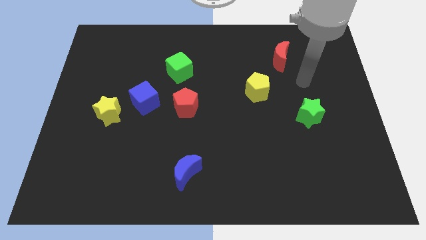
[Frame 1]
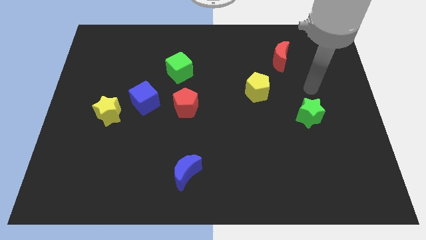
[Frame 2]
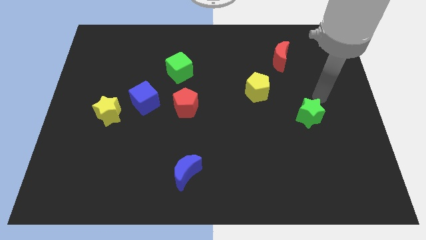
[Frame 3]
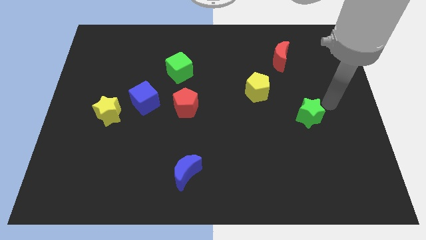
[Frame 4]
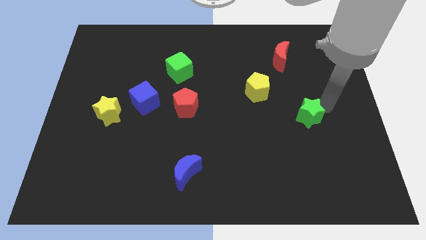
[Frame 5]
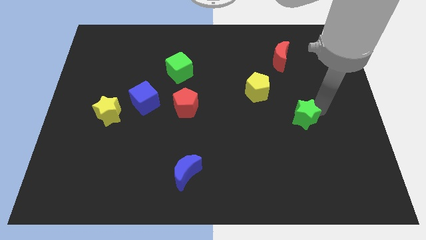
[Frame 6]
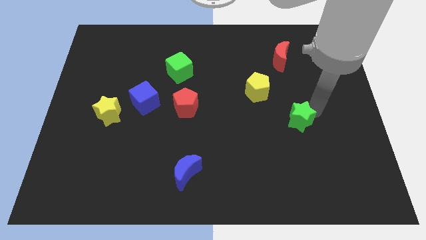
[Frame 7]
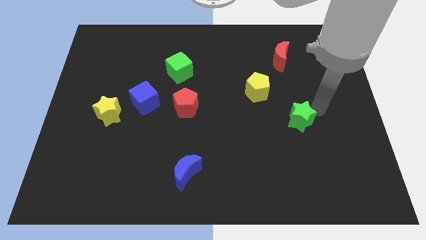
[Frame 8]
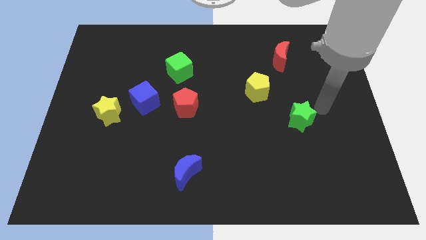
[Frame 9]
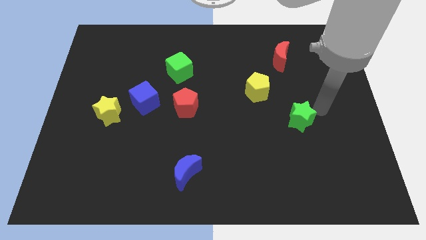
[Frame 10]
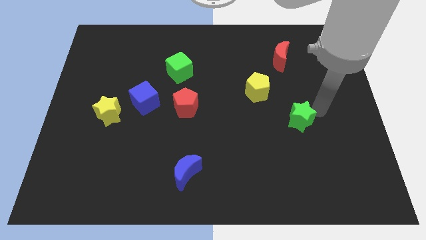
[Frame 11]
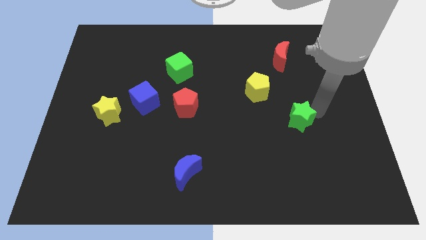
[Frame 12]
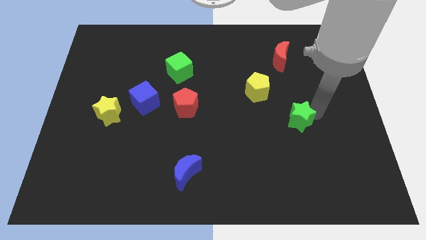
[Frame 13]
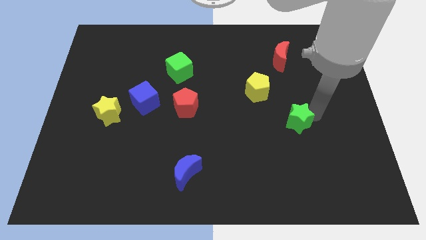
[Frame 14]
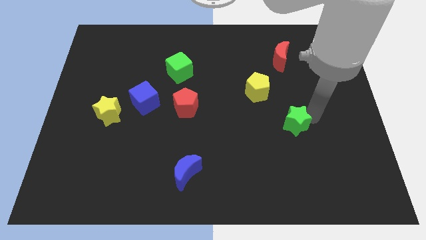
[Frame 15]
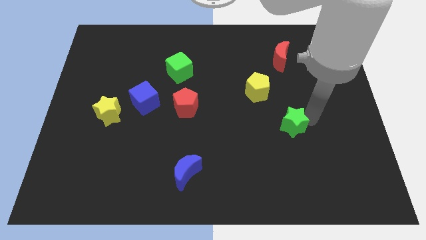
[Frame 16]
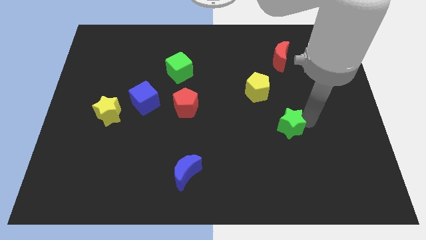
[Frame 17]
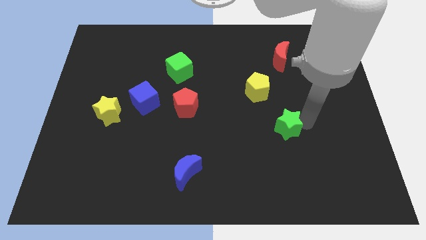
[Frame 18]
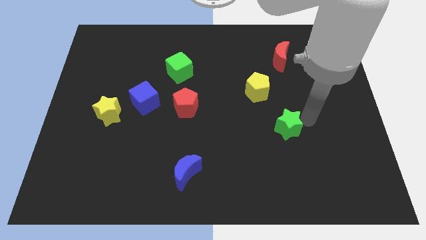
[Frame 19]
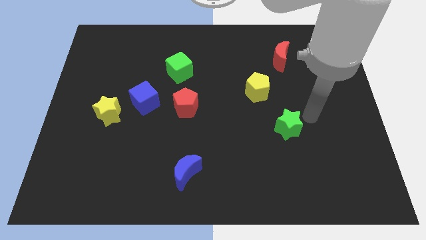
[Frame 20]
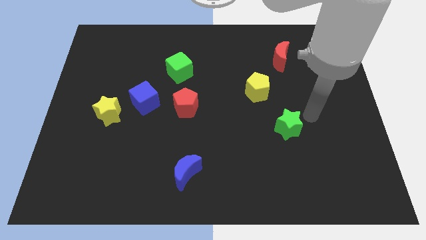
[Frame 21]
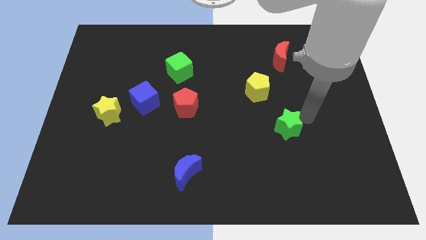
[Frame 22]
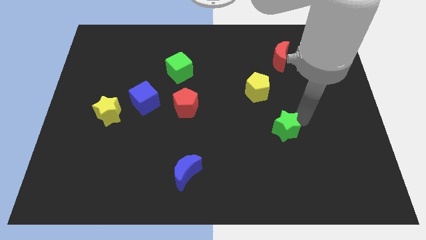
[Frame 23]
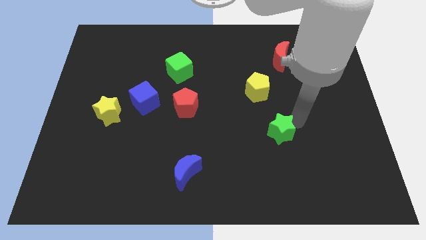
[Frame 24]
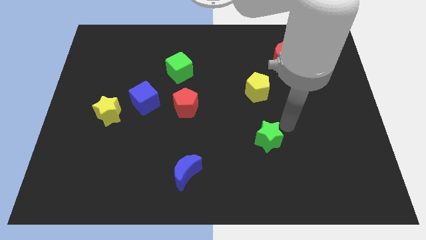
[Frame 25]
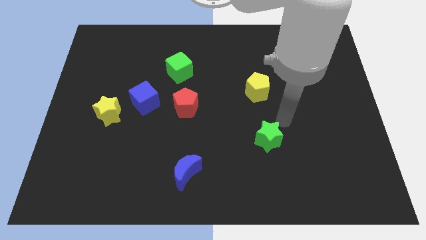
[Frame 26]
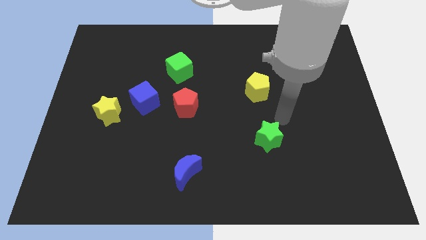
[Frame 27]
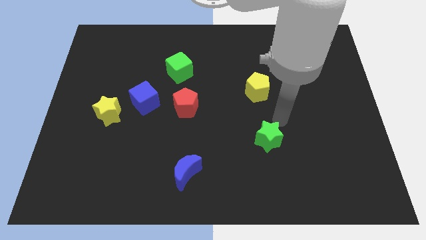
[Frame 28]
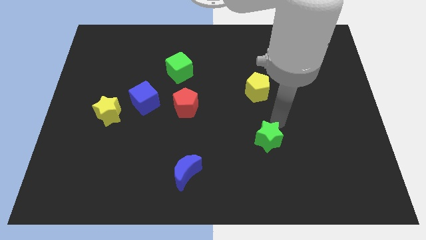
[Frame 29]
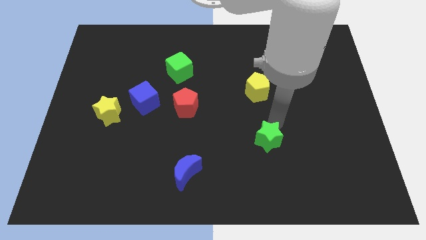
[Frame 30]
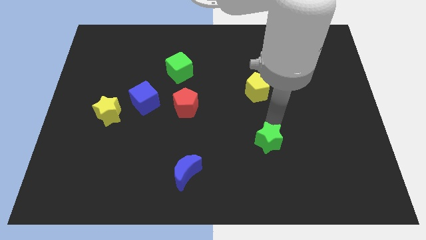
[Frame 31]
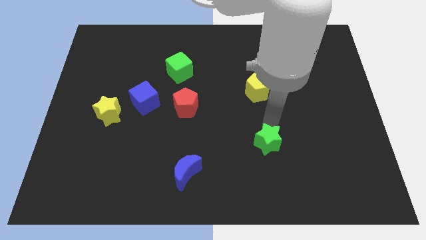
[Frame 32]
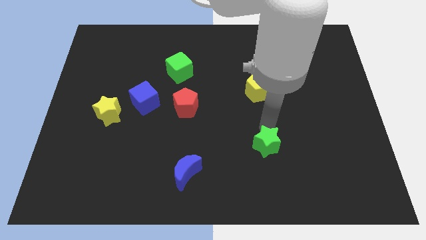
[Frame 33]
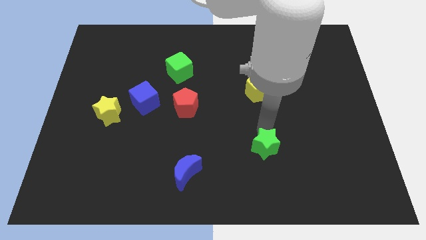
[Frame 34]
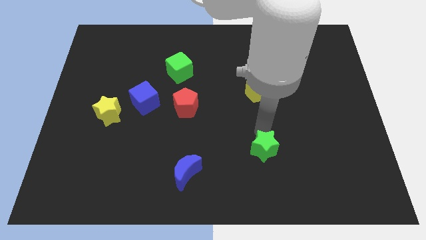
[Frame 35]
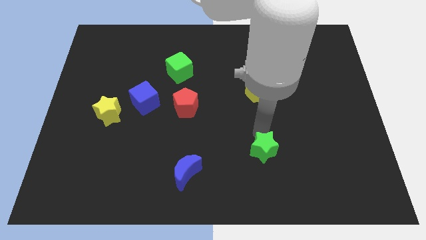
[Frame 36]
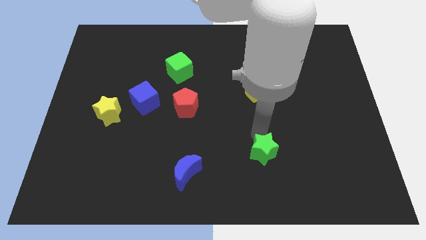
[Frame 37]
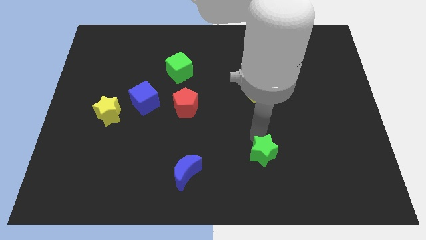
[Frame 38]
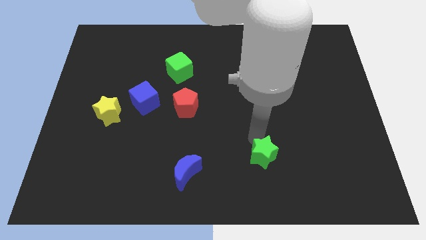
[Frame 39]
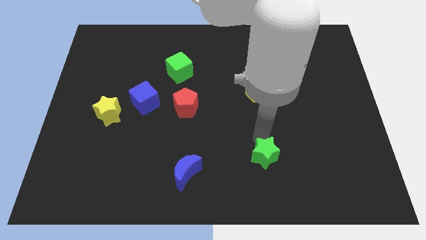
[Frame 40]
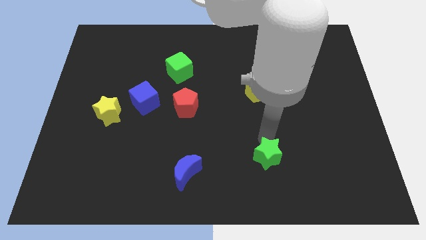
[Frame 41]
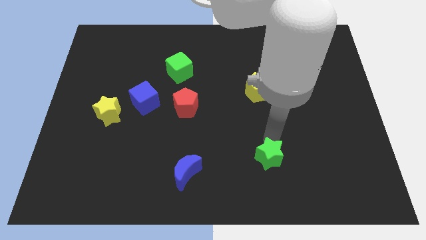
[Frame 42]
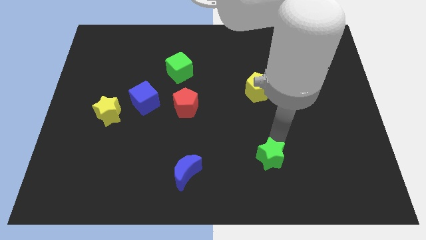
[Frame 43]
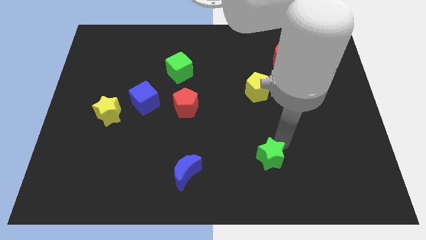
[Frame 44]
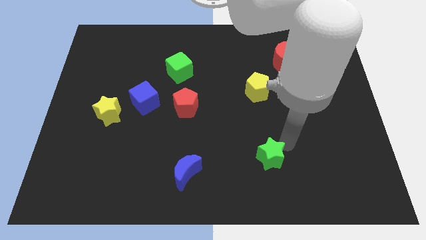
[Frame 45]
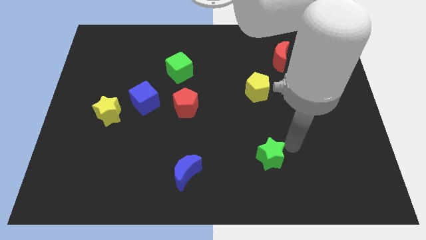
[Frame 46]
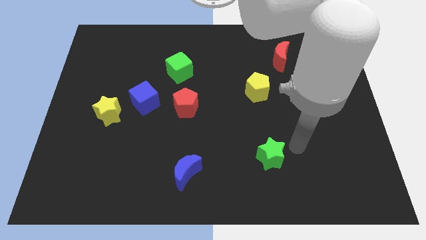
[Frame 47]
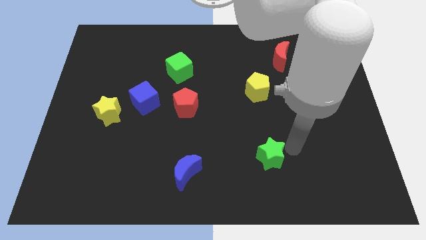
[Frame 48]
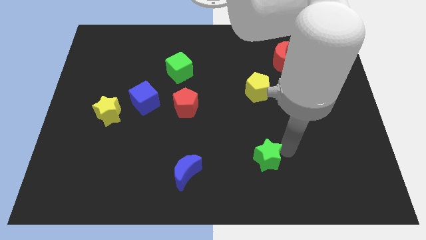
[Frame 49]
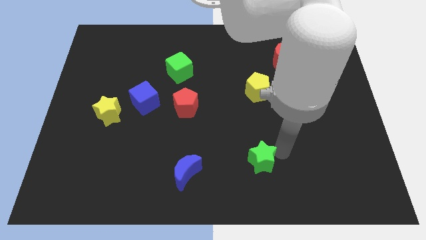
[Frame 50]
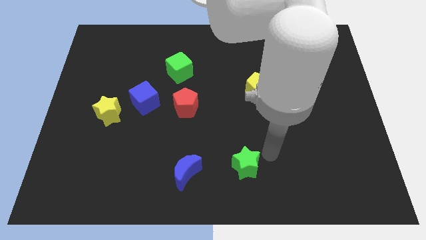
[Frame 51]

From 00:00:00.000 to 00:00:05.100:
push the green star to the bottom

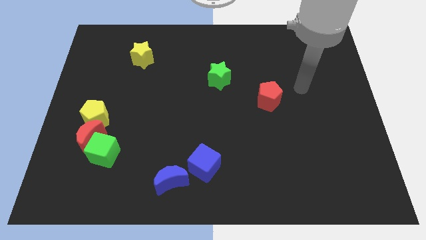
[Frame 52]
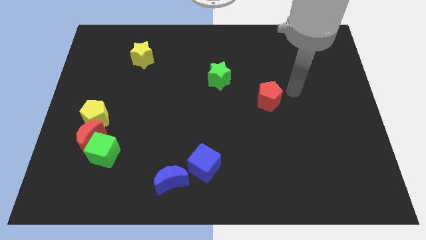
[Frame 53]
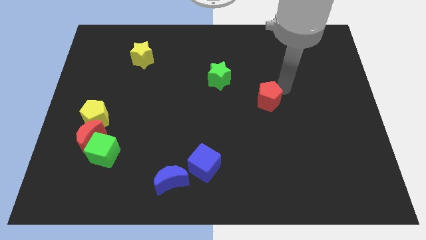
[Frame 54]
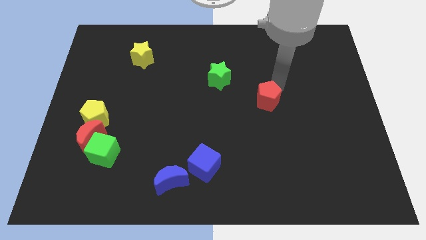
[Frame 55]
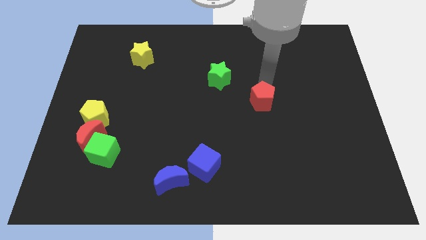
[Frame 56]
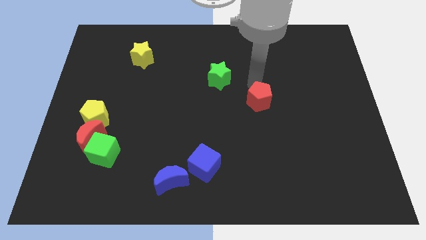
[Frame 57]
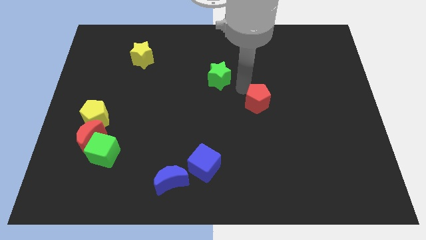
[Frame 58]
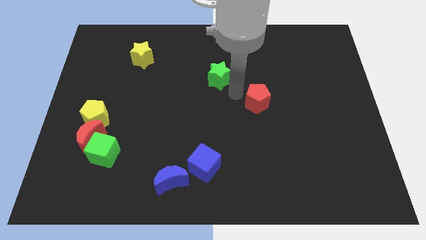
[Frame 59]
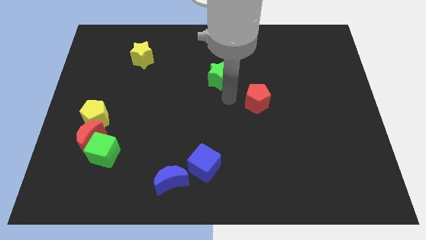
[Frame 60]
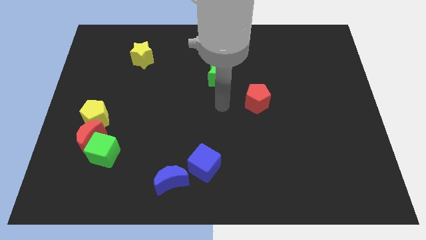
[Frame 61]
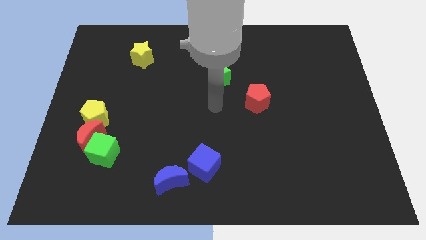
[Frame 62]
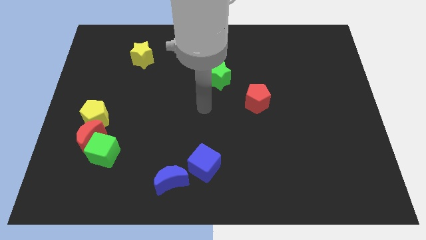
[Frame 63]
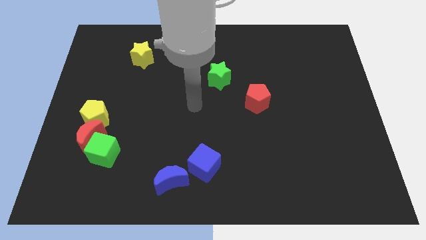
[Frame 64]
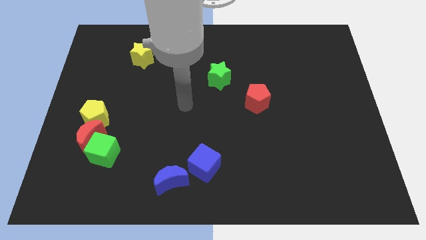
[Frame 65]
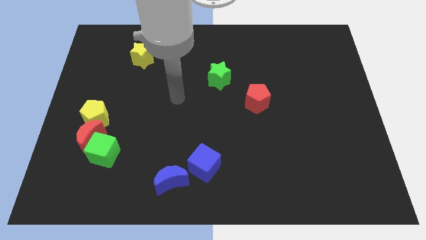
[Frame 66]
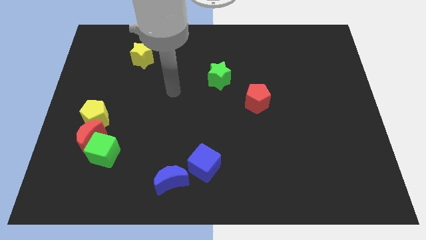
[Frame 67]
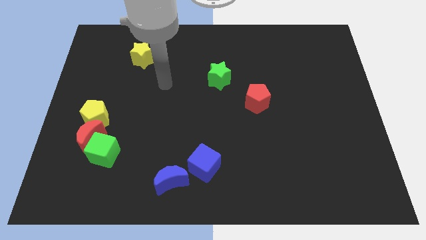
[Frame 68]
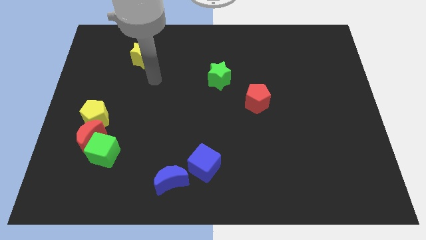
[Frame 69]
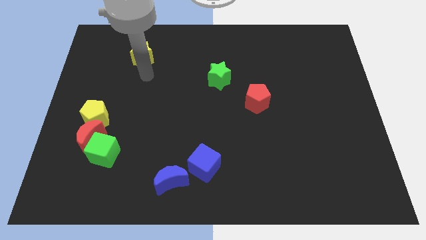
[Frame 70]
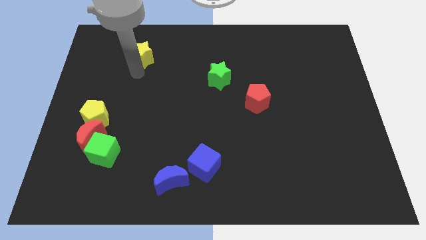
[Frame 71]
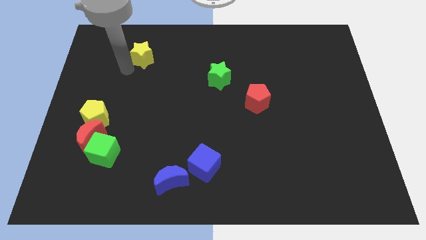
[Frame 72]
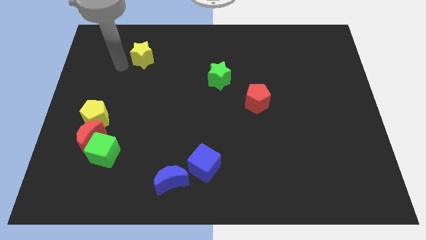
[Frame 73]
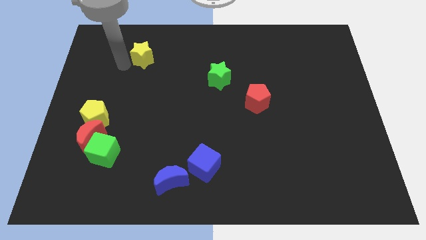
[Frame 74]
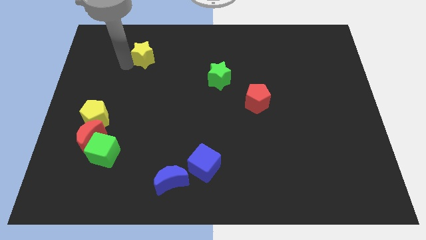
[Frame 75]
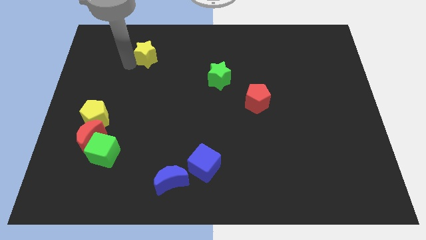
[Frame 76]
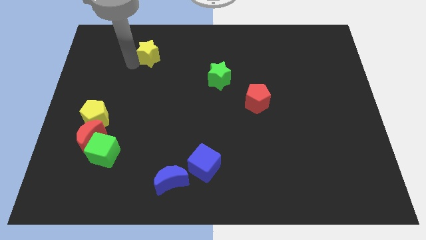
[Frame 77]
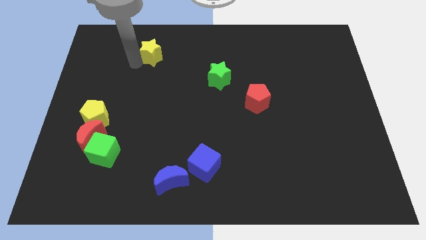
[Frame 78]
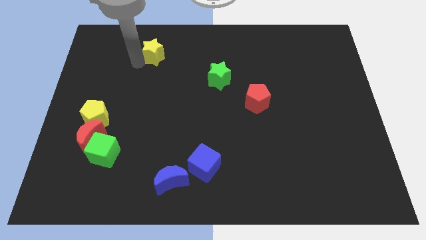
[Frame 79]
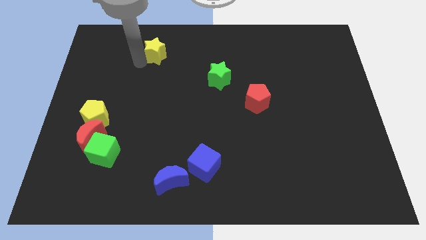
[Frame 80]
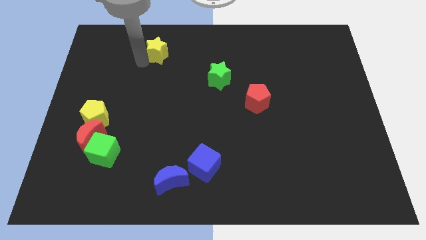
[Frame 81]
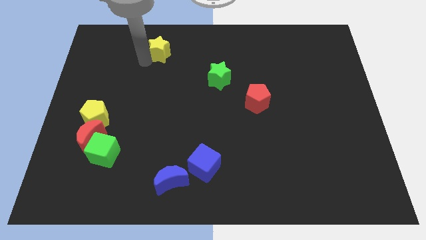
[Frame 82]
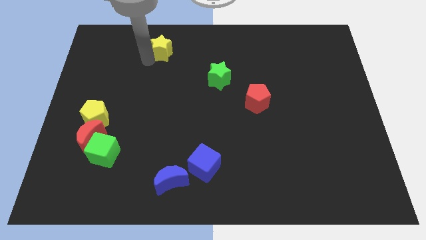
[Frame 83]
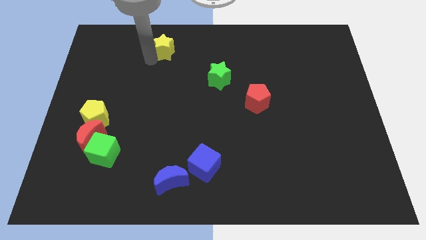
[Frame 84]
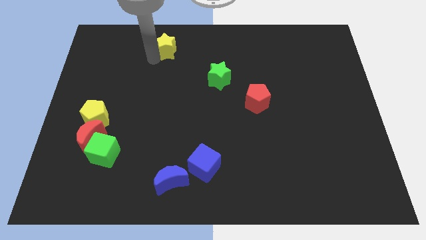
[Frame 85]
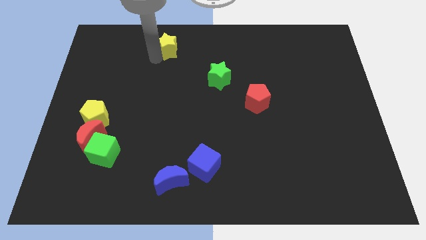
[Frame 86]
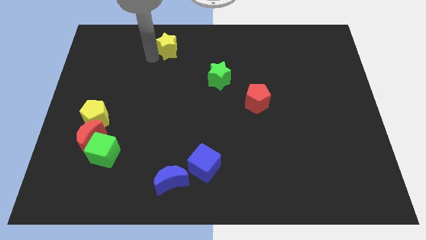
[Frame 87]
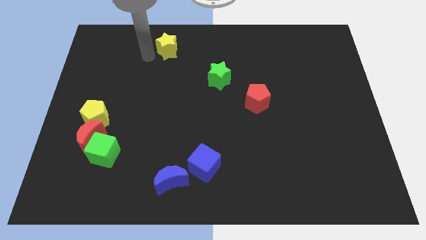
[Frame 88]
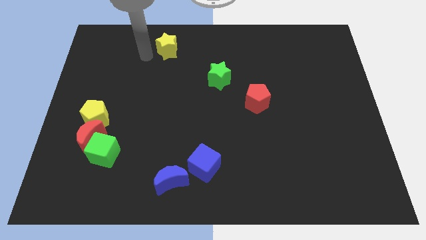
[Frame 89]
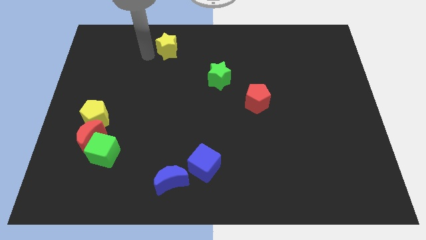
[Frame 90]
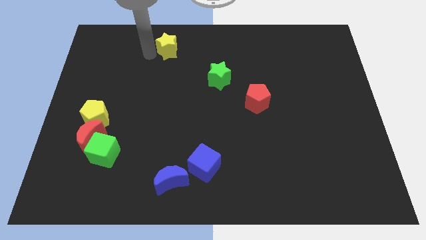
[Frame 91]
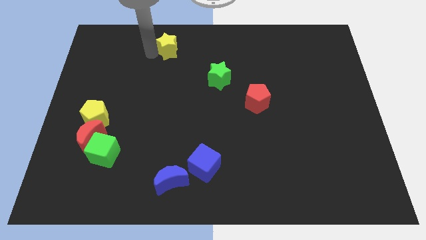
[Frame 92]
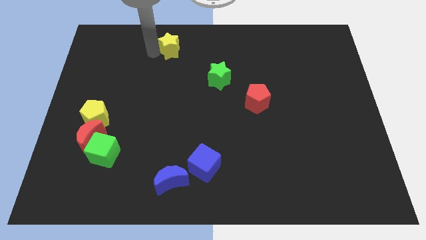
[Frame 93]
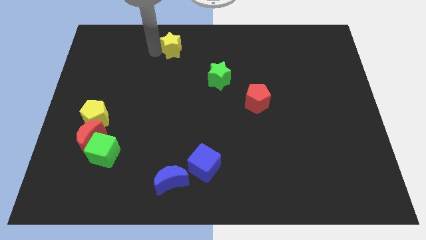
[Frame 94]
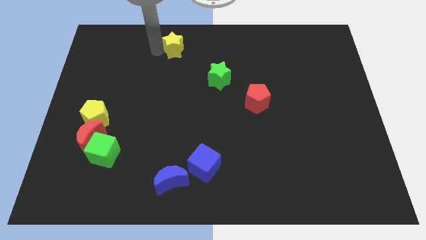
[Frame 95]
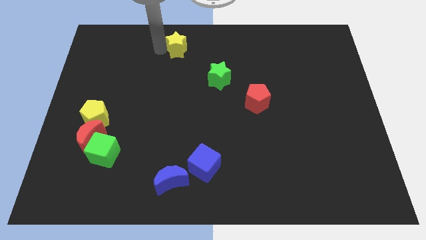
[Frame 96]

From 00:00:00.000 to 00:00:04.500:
put the yellow star to the top side
